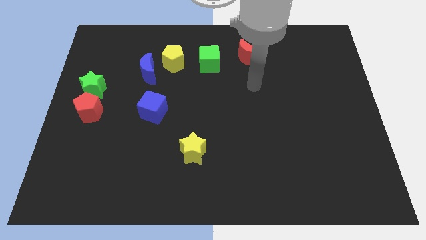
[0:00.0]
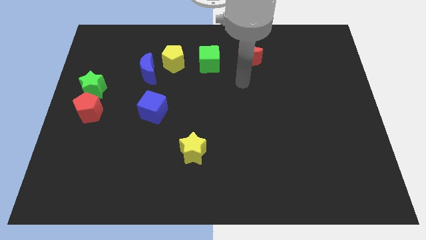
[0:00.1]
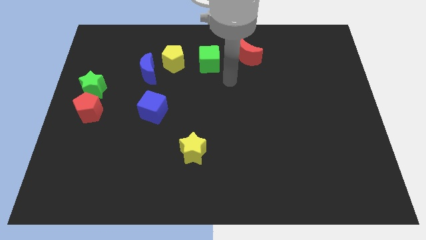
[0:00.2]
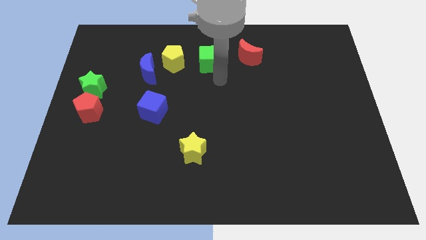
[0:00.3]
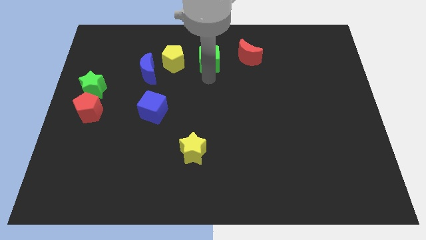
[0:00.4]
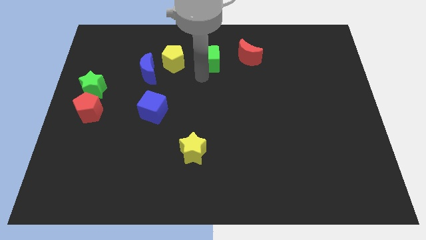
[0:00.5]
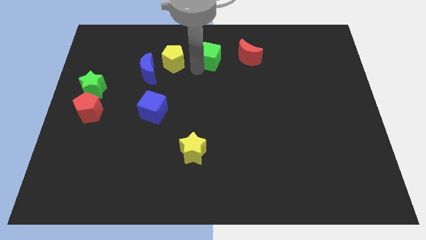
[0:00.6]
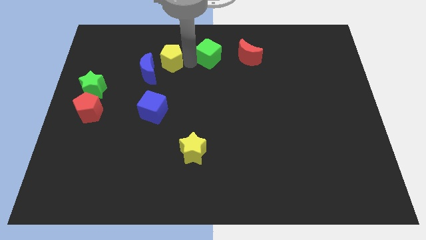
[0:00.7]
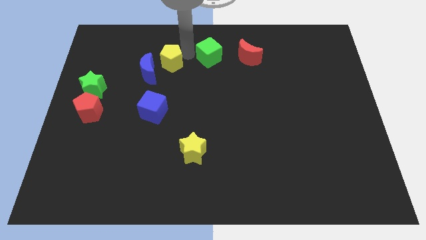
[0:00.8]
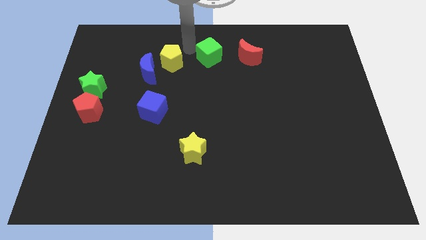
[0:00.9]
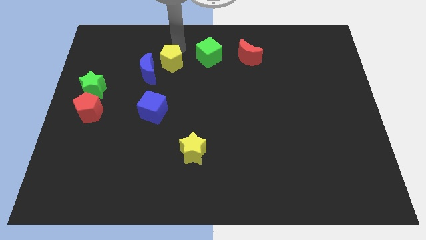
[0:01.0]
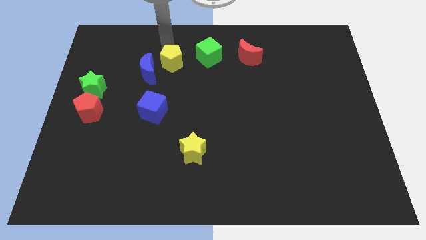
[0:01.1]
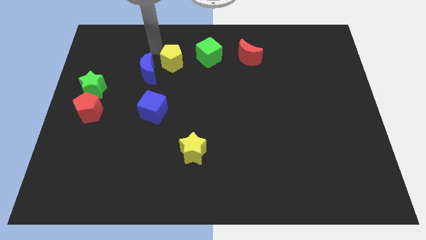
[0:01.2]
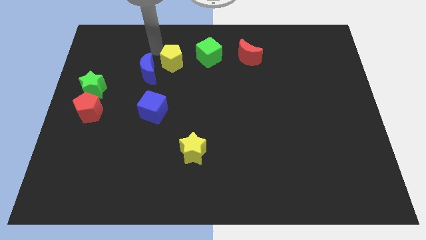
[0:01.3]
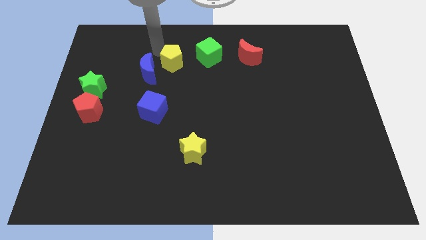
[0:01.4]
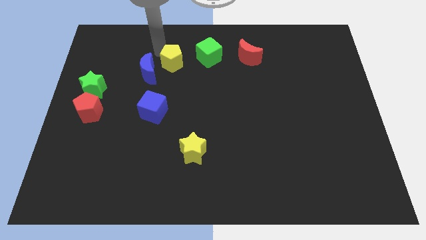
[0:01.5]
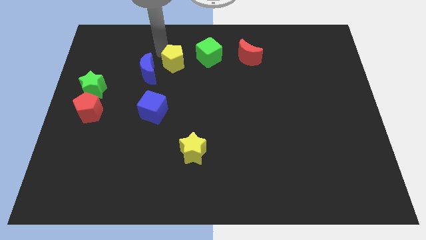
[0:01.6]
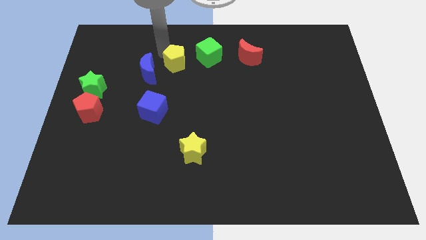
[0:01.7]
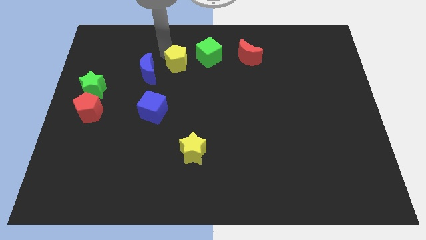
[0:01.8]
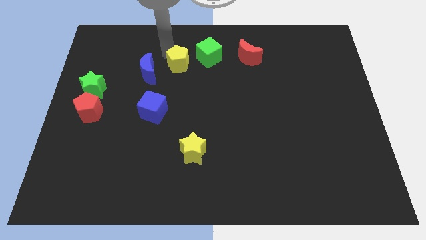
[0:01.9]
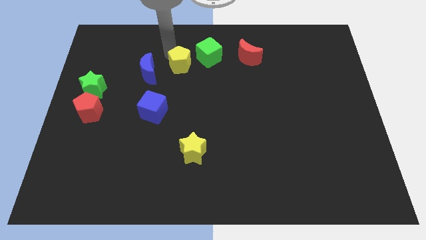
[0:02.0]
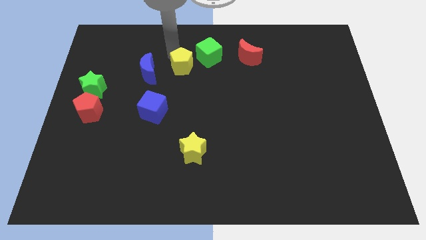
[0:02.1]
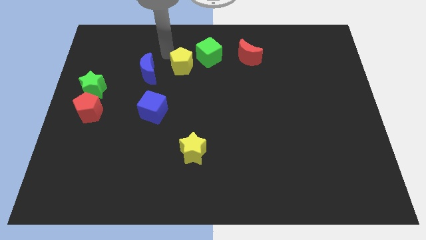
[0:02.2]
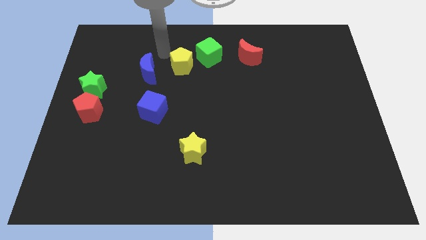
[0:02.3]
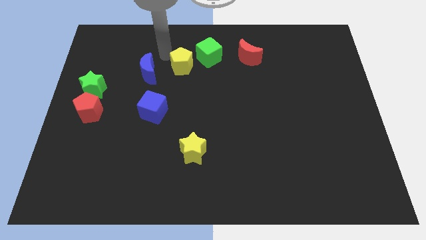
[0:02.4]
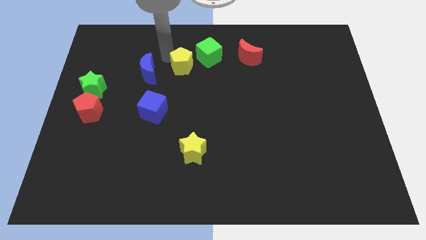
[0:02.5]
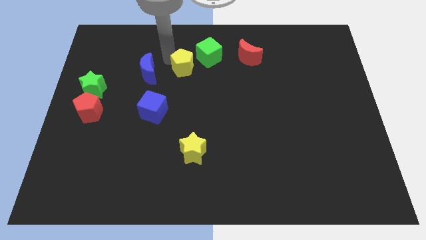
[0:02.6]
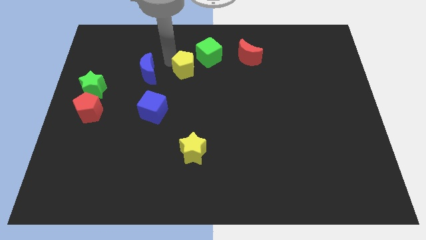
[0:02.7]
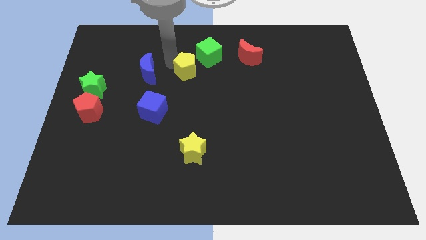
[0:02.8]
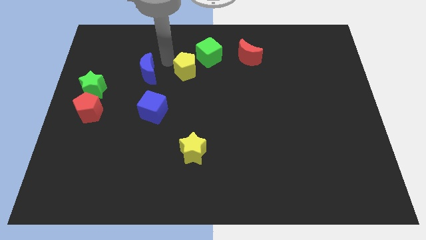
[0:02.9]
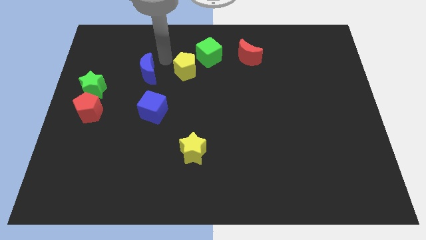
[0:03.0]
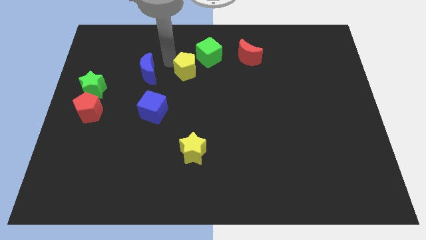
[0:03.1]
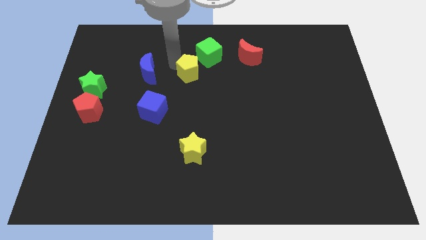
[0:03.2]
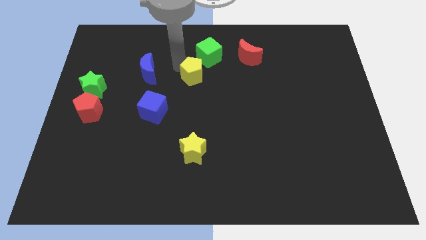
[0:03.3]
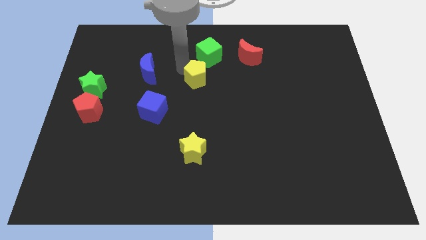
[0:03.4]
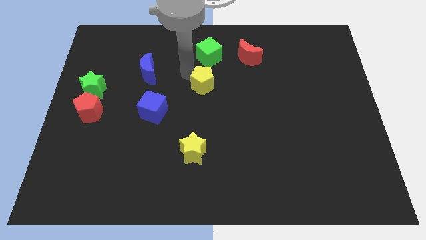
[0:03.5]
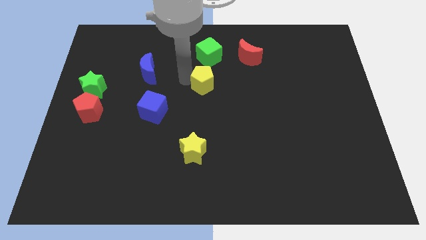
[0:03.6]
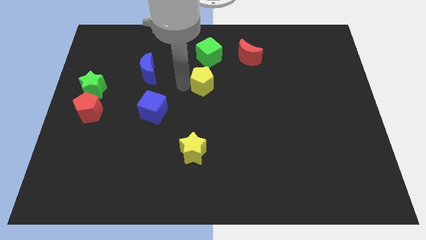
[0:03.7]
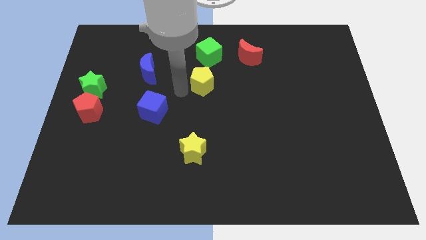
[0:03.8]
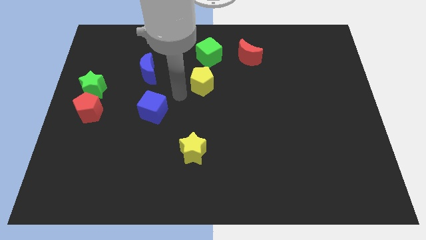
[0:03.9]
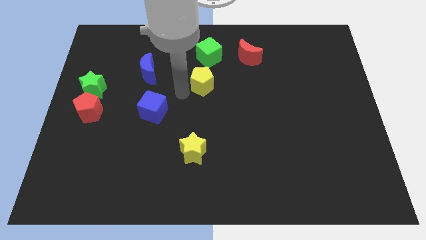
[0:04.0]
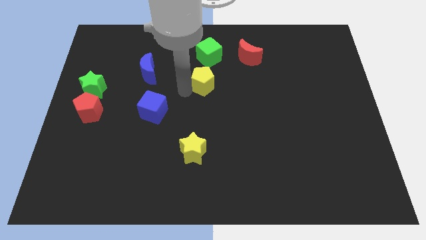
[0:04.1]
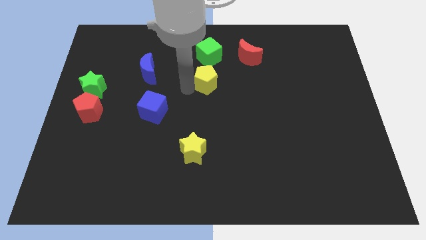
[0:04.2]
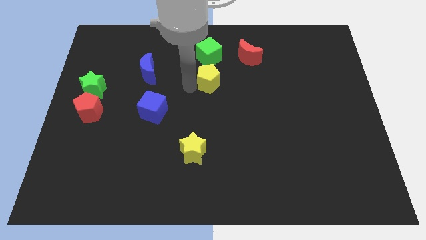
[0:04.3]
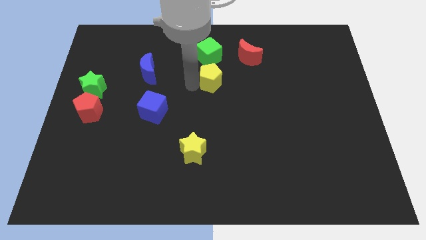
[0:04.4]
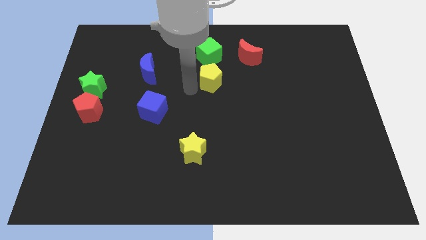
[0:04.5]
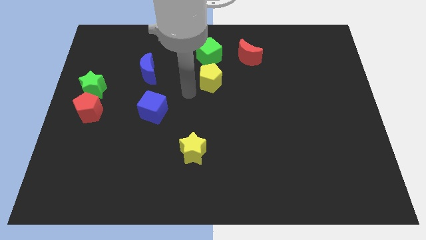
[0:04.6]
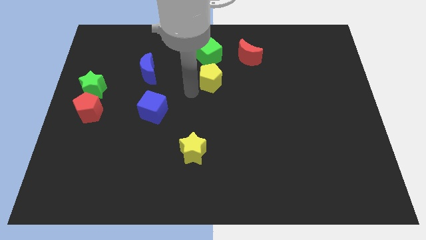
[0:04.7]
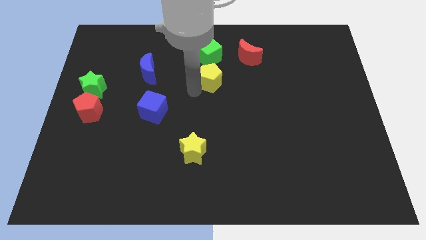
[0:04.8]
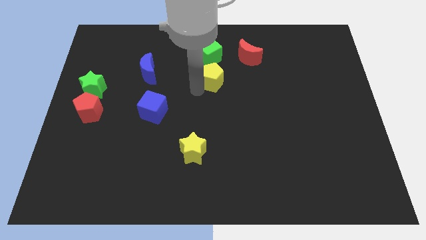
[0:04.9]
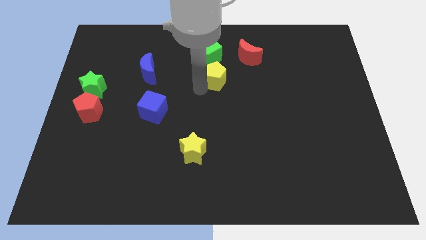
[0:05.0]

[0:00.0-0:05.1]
move the yellow pentagon to the bottom right of the green cube

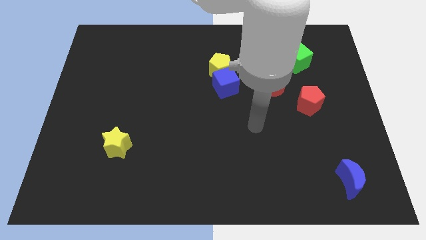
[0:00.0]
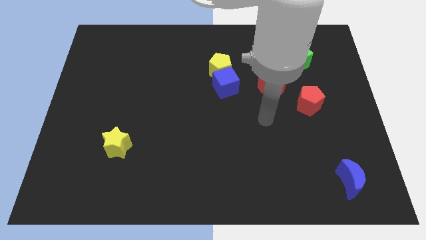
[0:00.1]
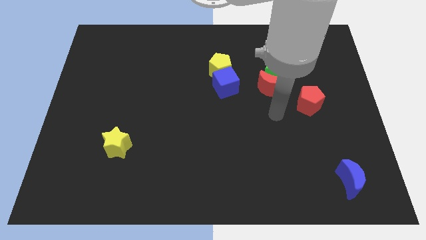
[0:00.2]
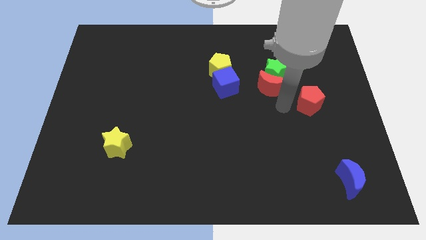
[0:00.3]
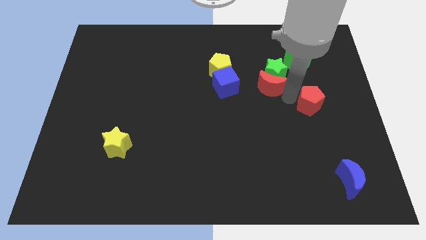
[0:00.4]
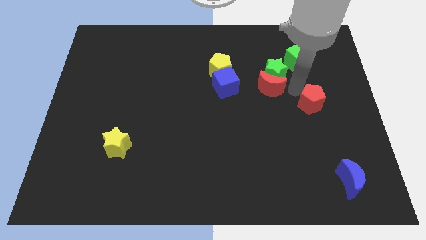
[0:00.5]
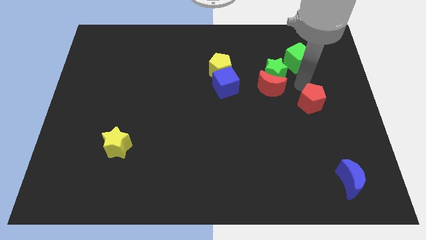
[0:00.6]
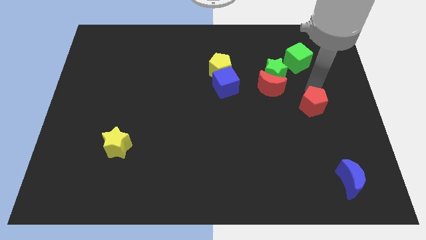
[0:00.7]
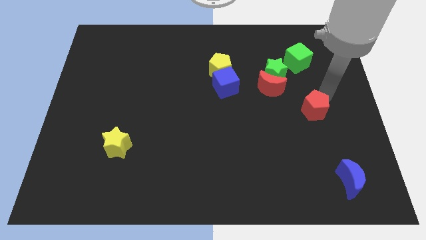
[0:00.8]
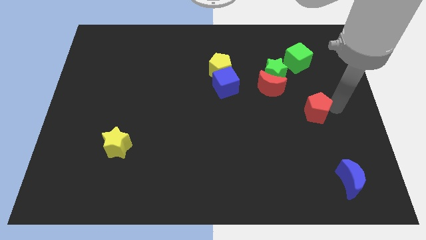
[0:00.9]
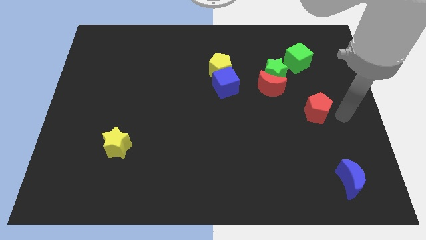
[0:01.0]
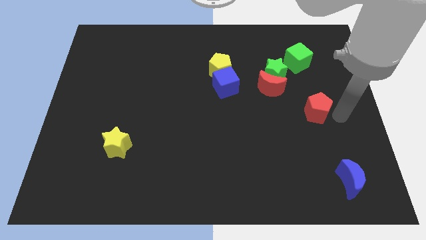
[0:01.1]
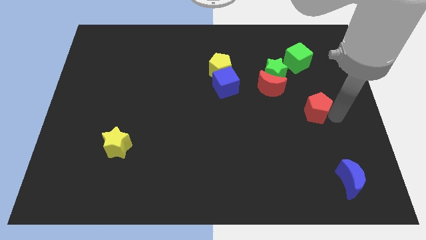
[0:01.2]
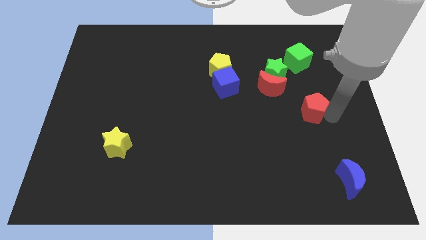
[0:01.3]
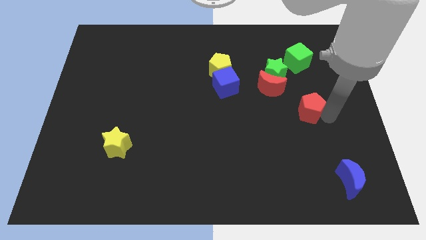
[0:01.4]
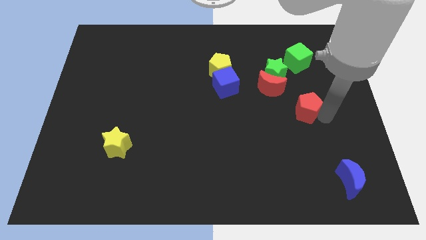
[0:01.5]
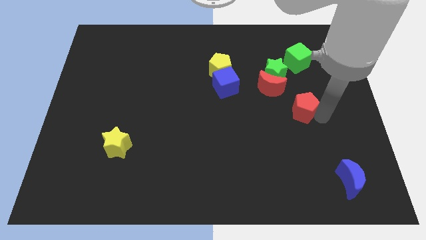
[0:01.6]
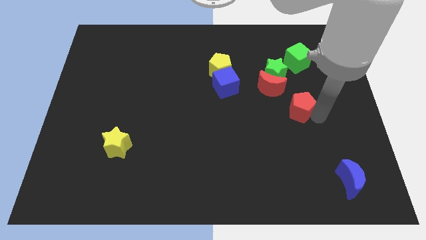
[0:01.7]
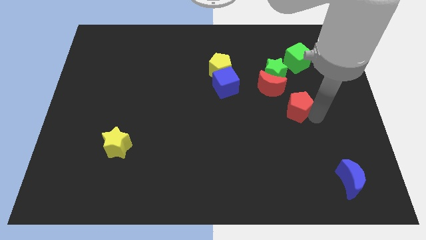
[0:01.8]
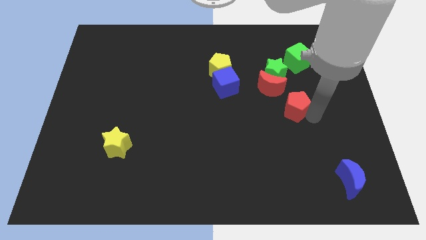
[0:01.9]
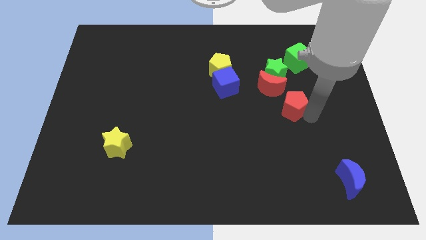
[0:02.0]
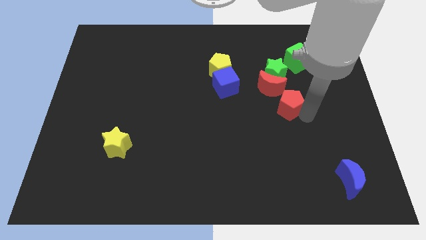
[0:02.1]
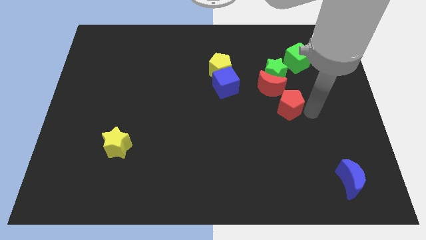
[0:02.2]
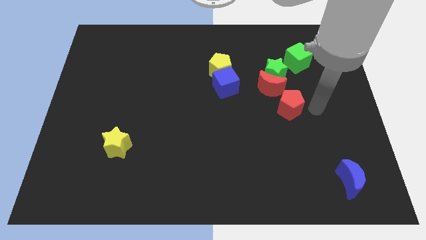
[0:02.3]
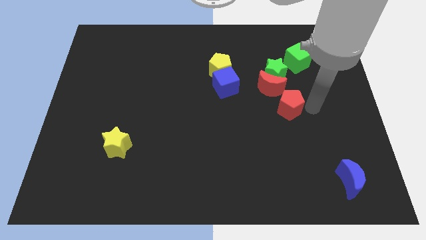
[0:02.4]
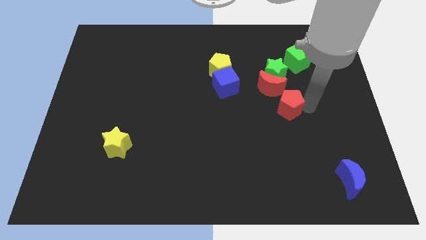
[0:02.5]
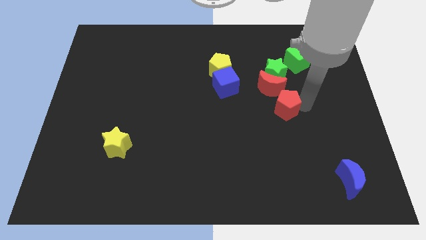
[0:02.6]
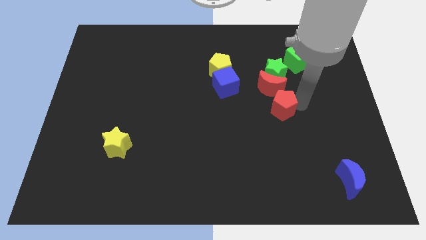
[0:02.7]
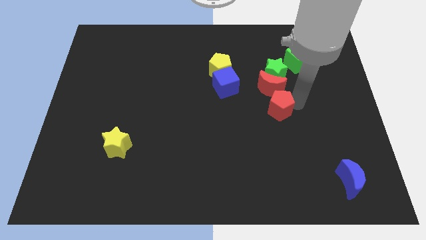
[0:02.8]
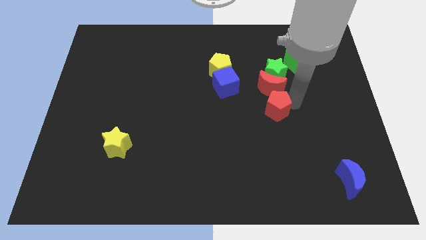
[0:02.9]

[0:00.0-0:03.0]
push the red pentagon to the bottom left of the red moon
